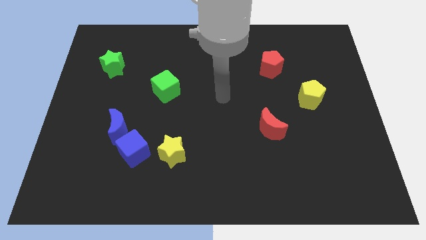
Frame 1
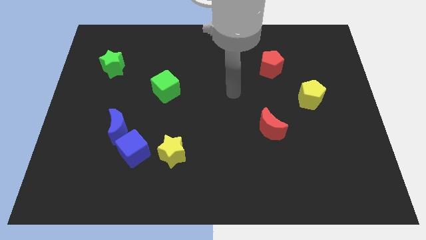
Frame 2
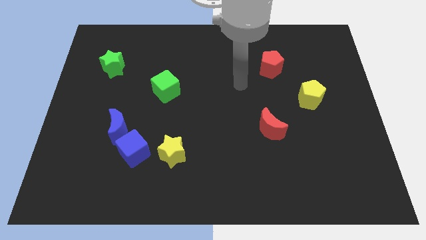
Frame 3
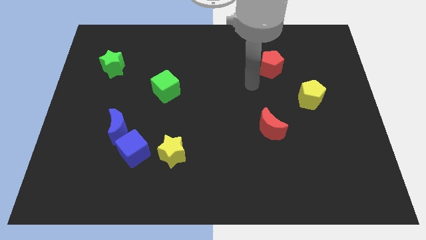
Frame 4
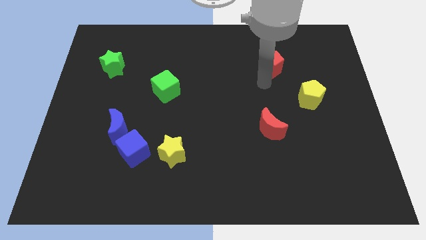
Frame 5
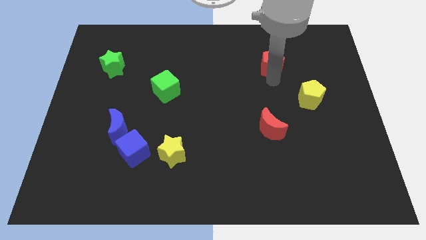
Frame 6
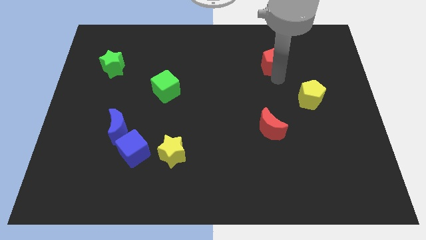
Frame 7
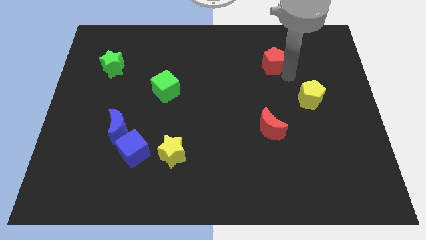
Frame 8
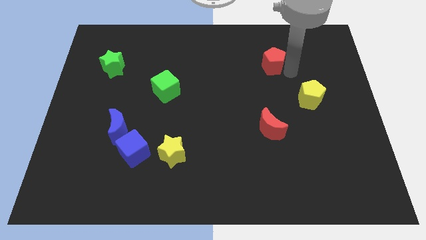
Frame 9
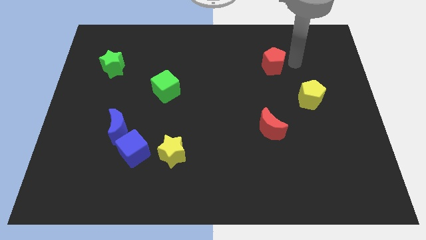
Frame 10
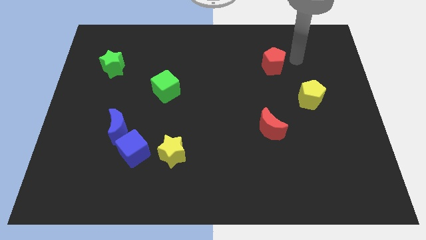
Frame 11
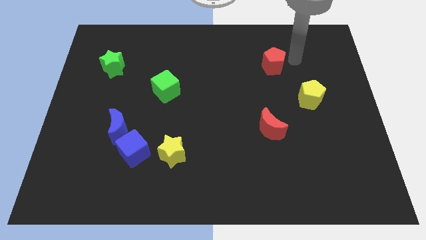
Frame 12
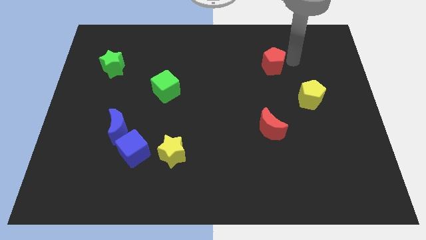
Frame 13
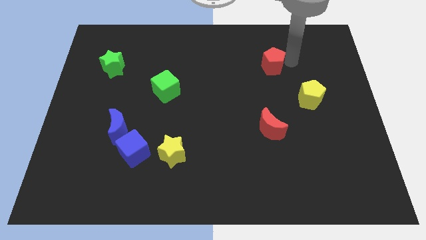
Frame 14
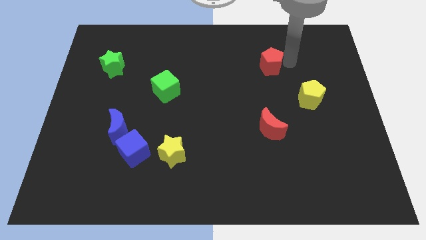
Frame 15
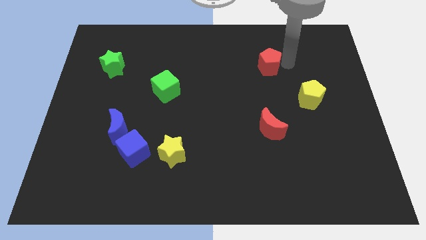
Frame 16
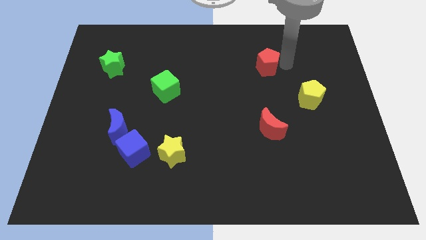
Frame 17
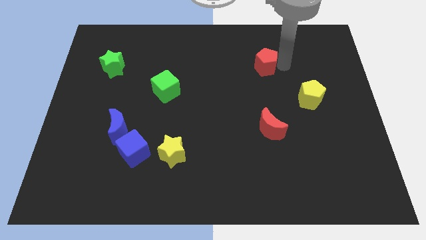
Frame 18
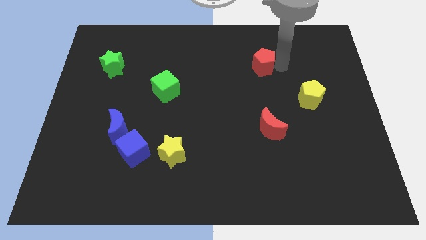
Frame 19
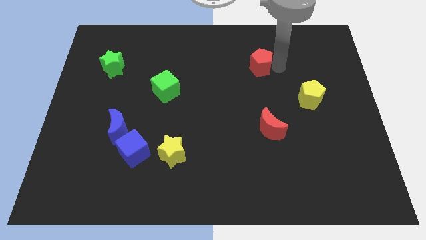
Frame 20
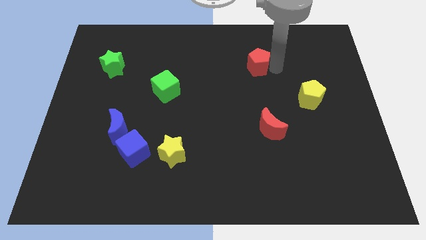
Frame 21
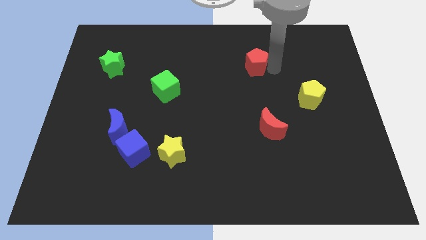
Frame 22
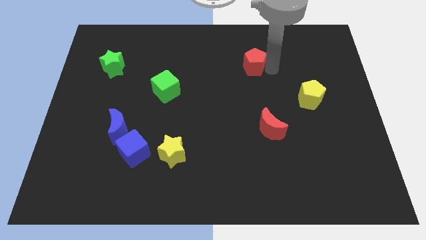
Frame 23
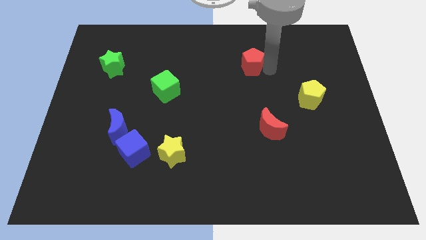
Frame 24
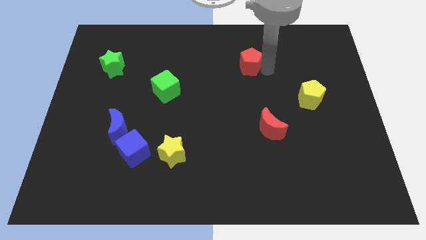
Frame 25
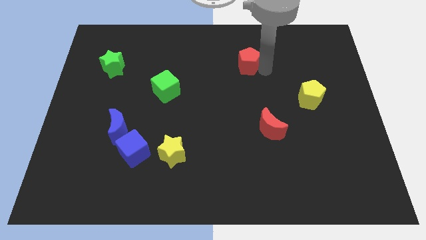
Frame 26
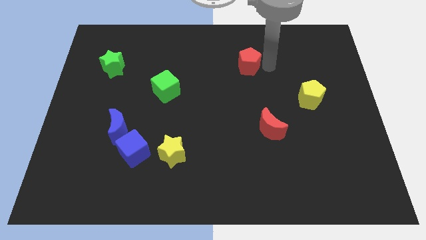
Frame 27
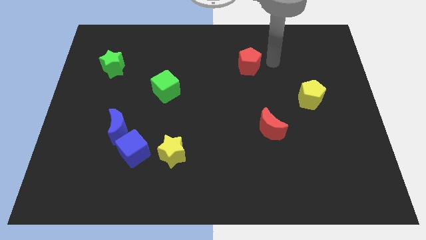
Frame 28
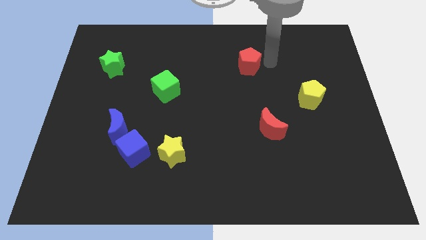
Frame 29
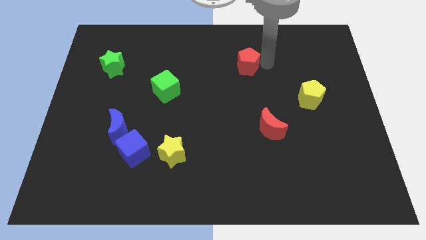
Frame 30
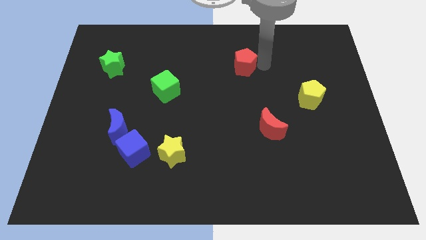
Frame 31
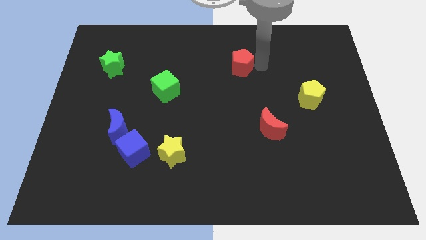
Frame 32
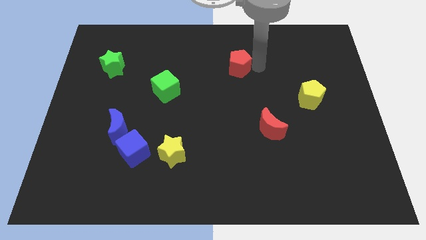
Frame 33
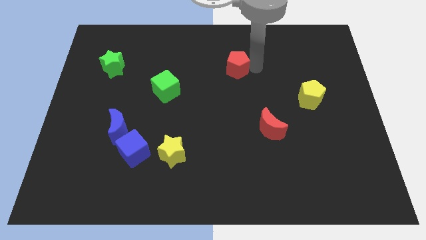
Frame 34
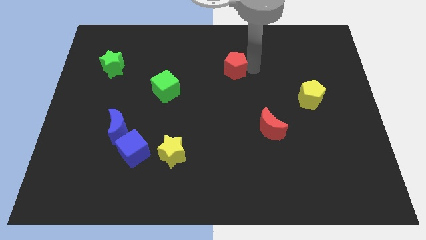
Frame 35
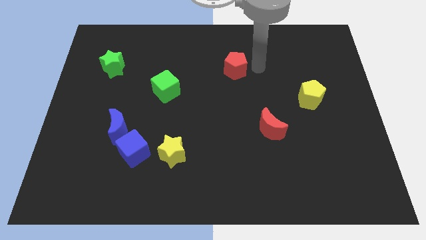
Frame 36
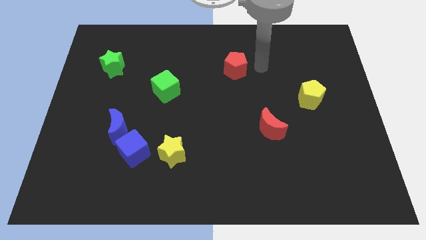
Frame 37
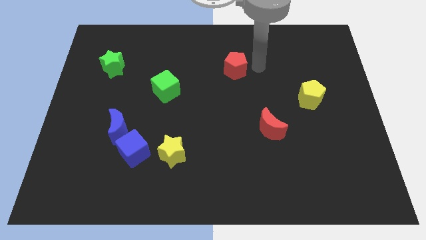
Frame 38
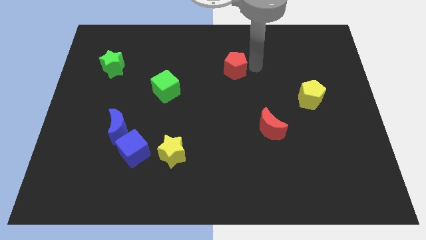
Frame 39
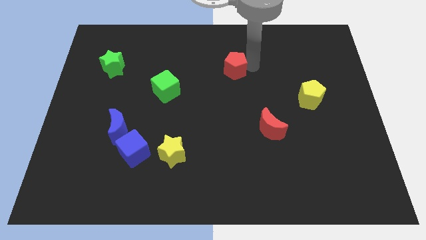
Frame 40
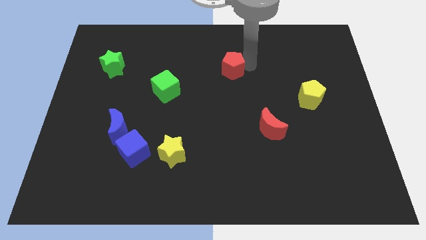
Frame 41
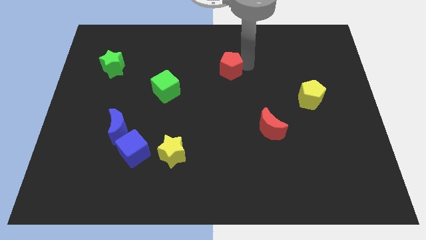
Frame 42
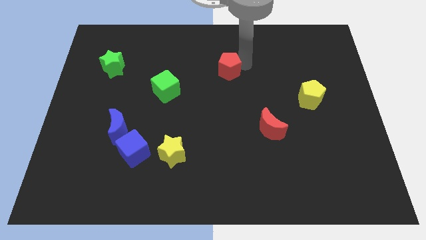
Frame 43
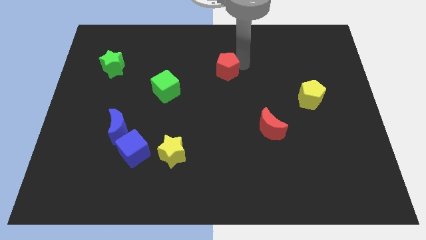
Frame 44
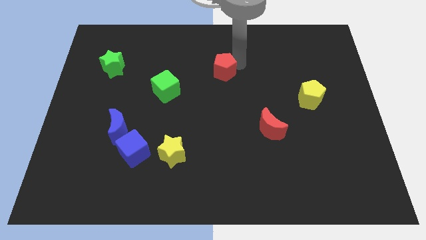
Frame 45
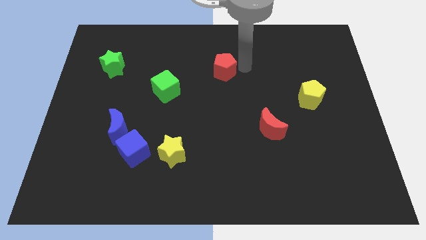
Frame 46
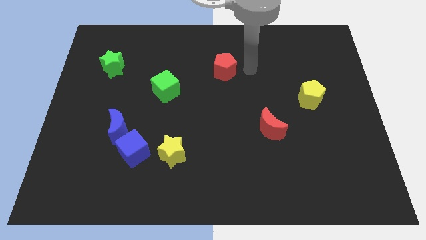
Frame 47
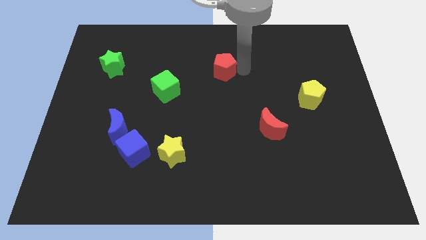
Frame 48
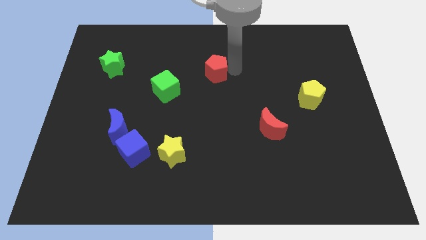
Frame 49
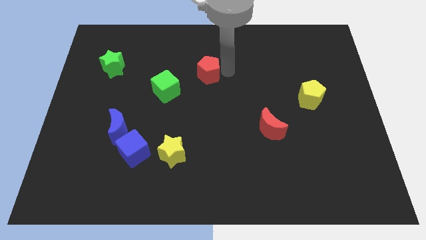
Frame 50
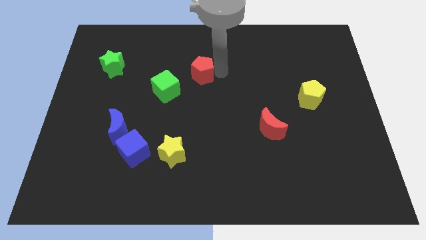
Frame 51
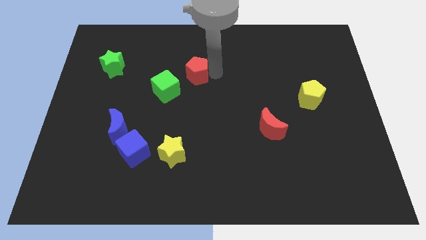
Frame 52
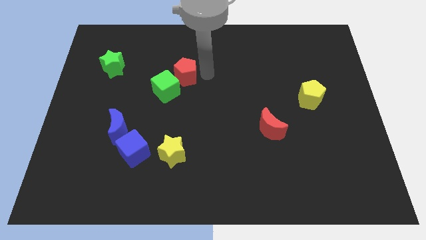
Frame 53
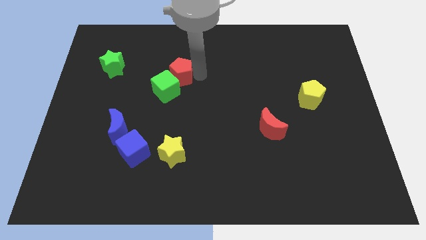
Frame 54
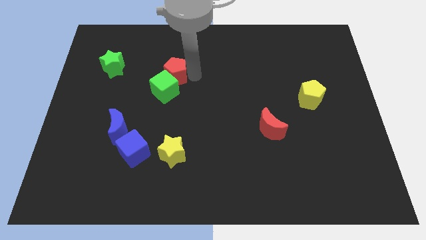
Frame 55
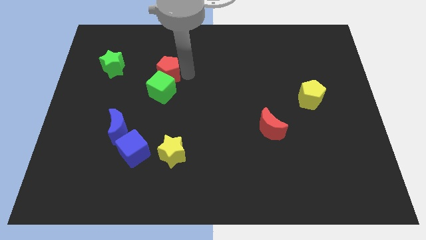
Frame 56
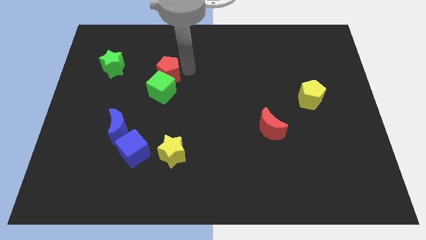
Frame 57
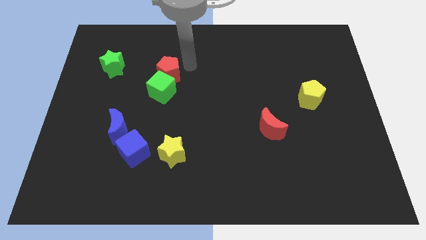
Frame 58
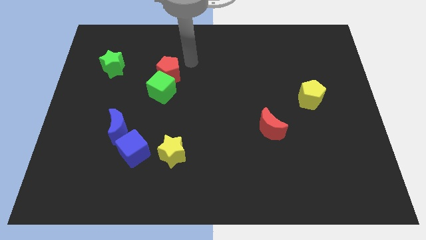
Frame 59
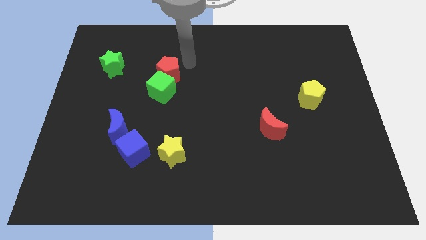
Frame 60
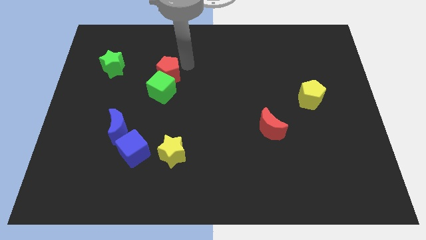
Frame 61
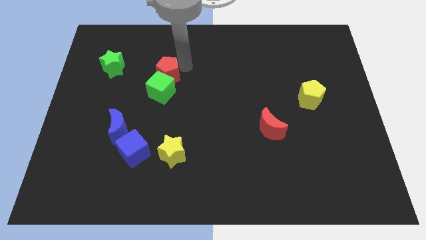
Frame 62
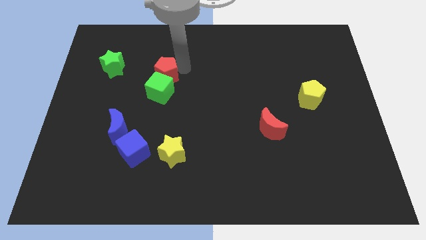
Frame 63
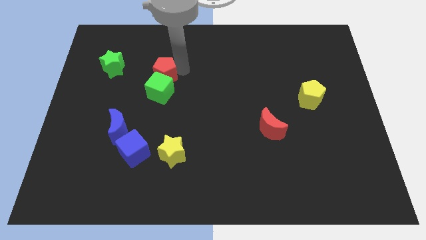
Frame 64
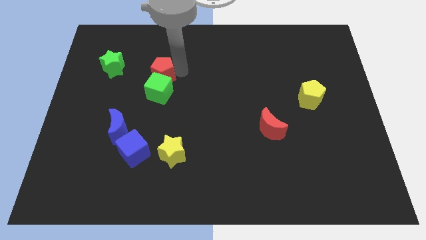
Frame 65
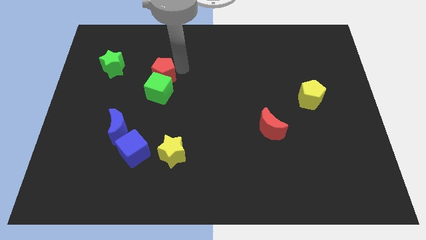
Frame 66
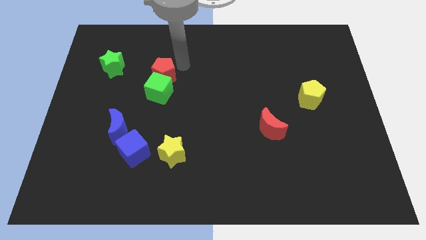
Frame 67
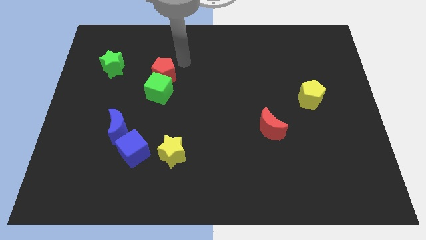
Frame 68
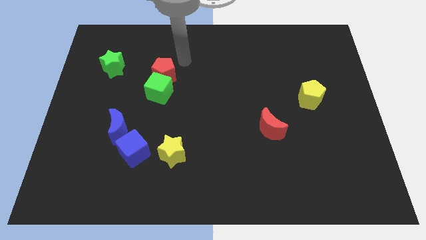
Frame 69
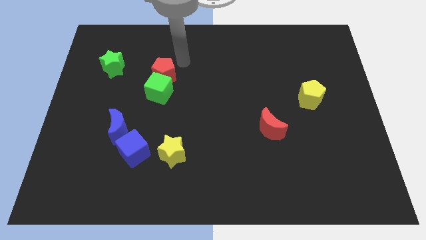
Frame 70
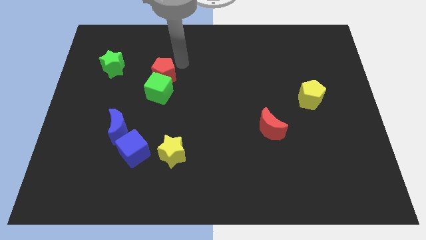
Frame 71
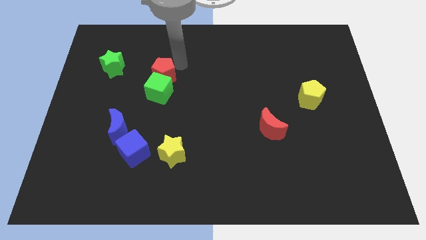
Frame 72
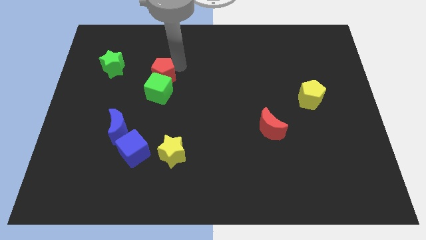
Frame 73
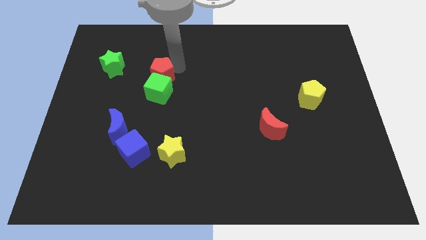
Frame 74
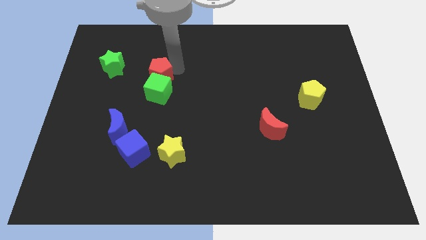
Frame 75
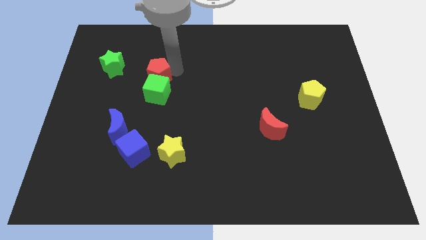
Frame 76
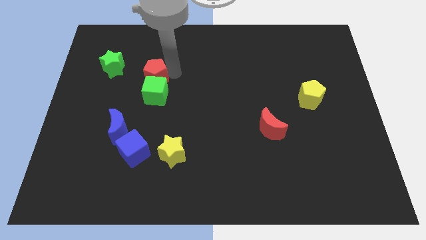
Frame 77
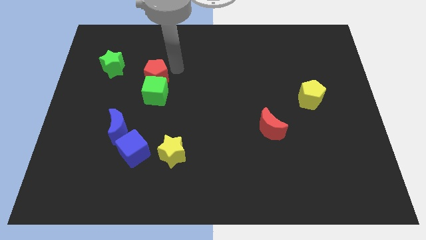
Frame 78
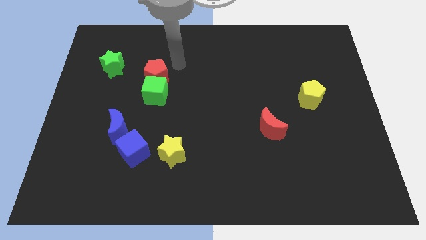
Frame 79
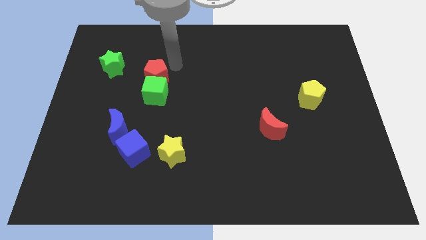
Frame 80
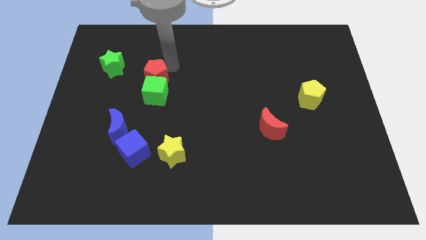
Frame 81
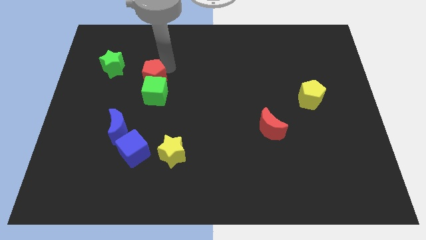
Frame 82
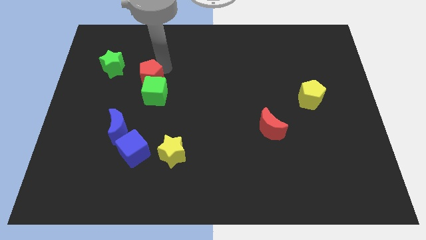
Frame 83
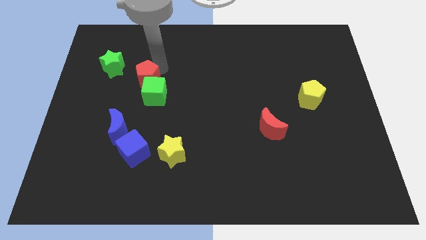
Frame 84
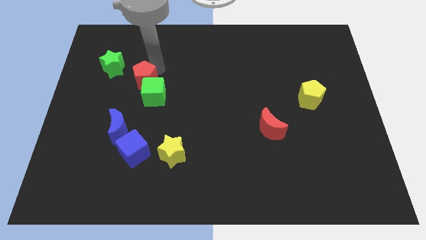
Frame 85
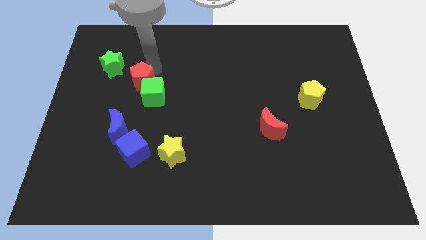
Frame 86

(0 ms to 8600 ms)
move the red pentagon to the top of the blue moon

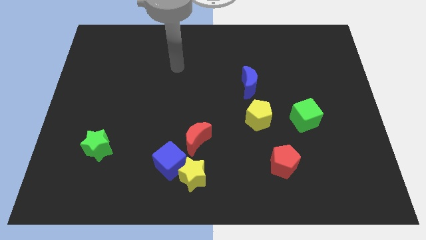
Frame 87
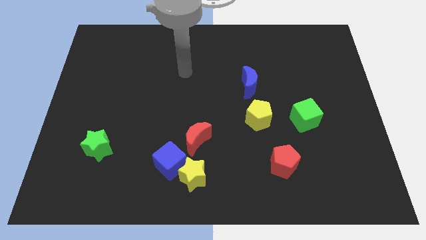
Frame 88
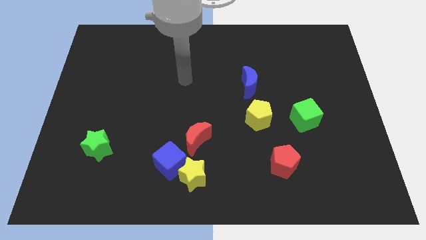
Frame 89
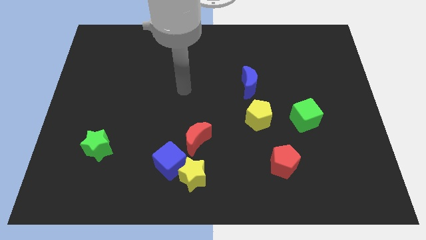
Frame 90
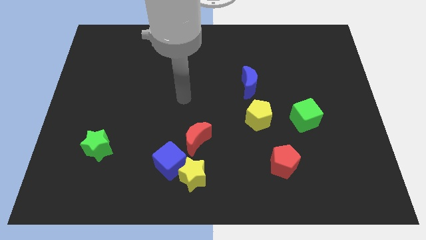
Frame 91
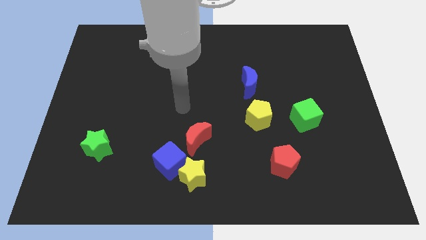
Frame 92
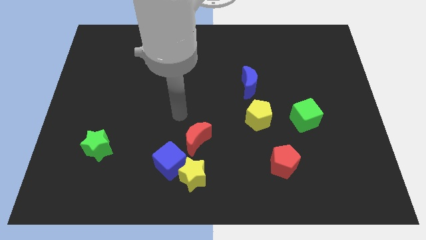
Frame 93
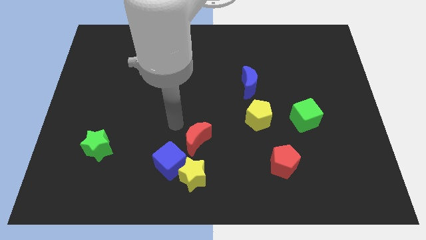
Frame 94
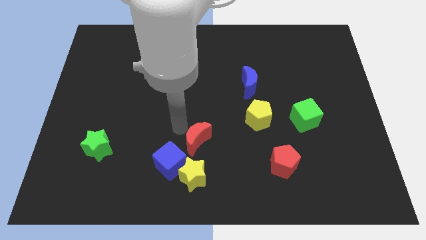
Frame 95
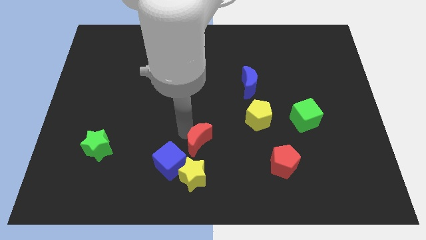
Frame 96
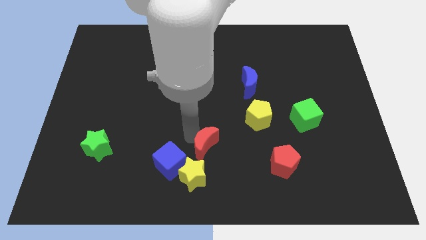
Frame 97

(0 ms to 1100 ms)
slide the red moon to the top right side of the yellow star
